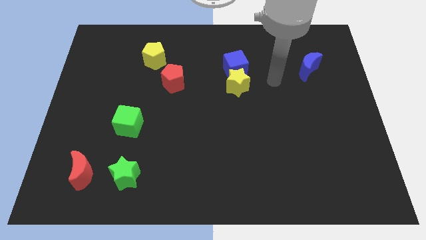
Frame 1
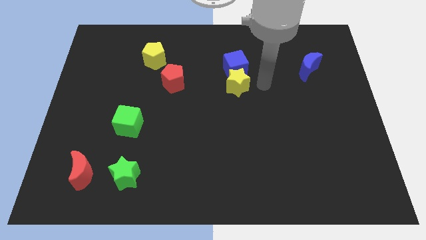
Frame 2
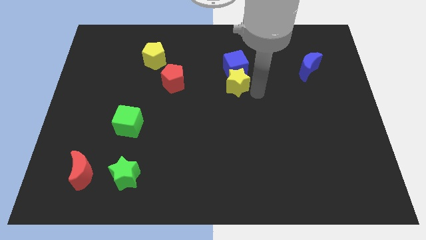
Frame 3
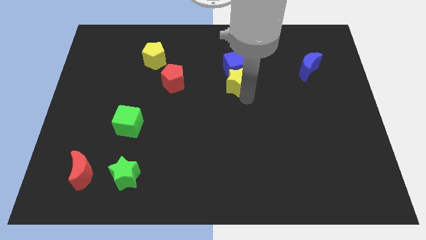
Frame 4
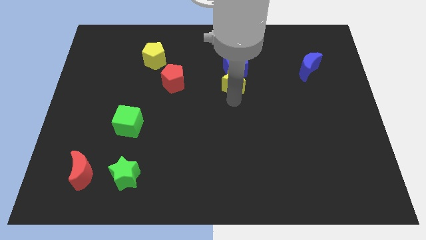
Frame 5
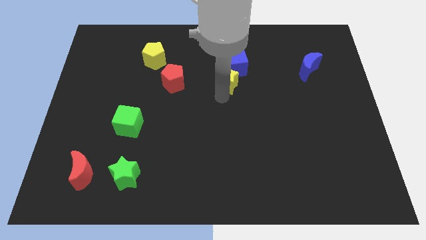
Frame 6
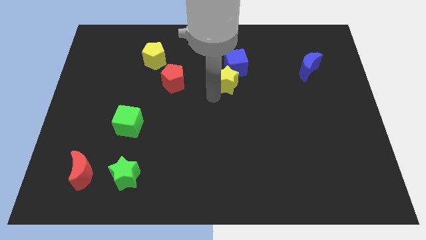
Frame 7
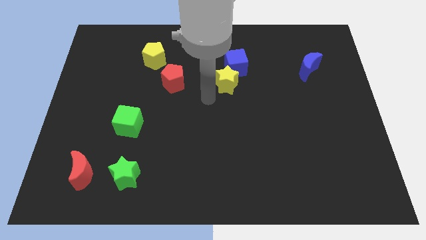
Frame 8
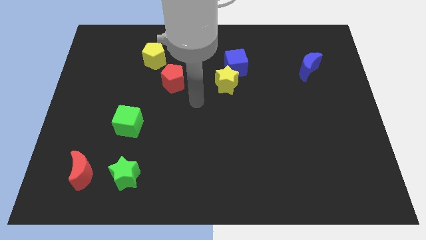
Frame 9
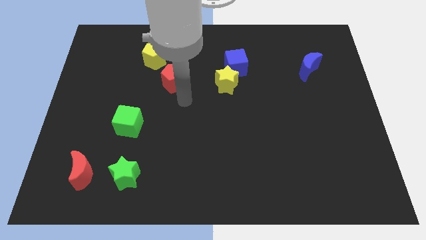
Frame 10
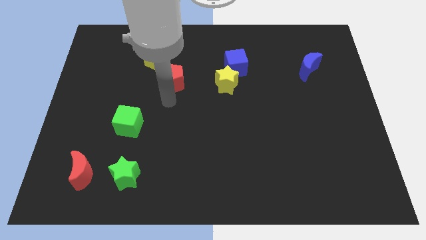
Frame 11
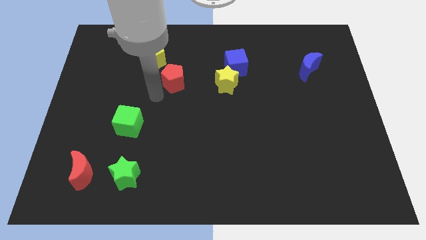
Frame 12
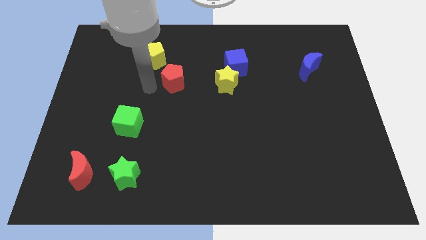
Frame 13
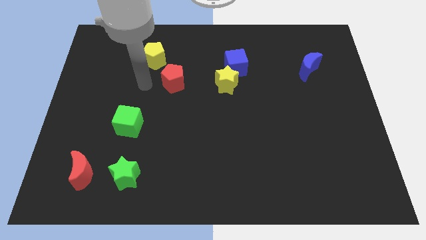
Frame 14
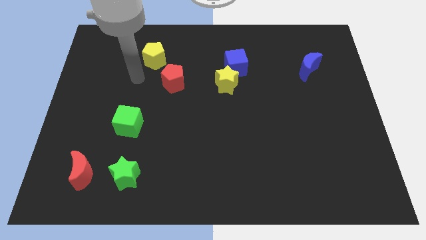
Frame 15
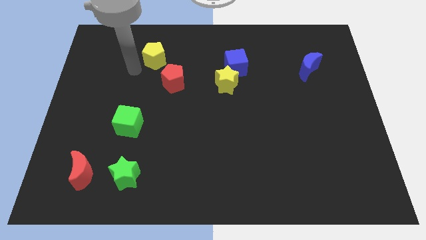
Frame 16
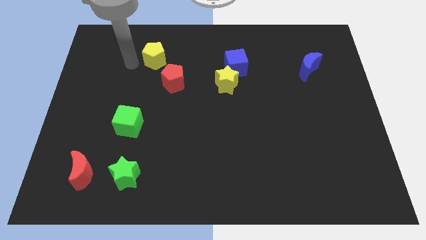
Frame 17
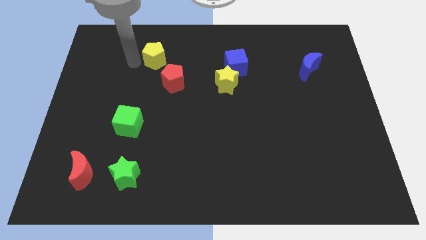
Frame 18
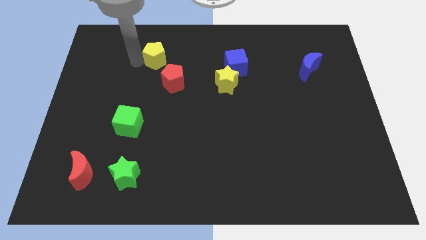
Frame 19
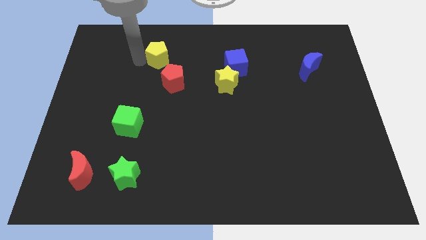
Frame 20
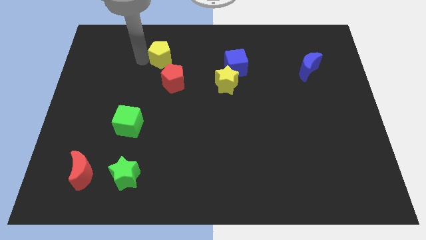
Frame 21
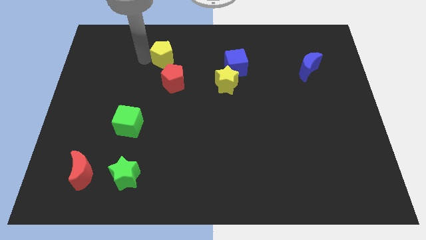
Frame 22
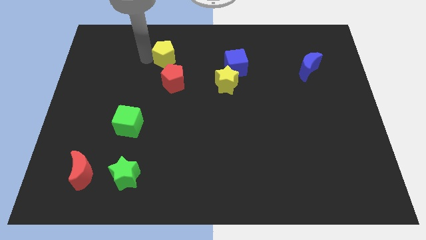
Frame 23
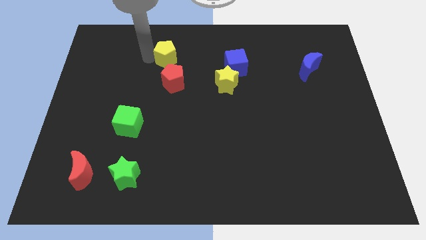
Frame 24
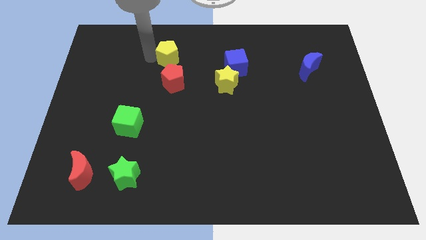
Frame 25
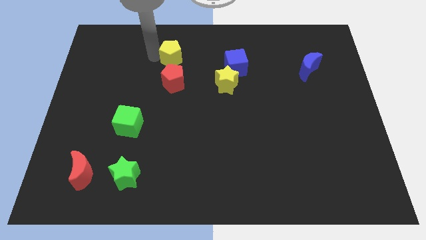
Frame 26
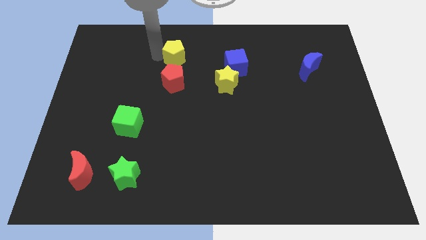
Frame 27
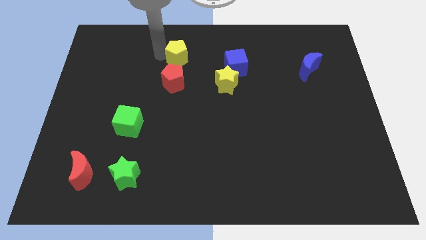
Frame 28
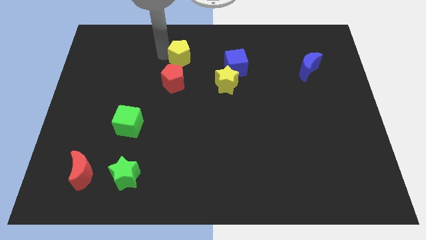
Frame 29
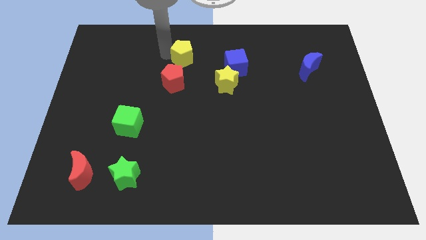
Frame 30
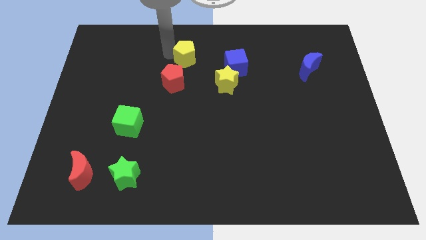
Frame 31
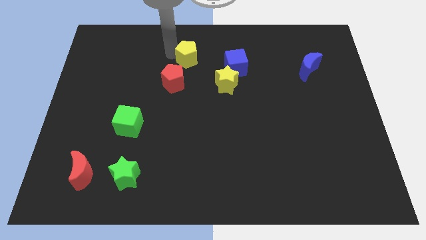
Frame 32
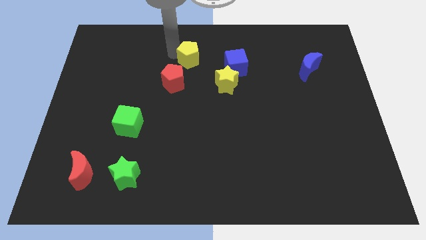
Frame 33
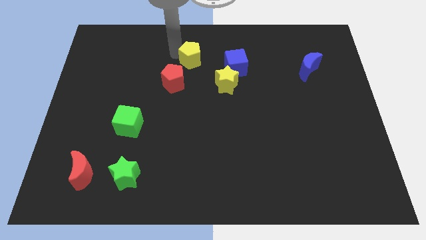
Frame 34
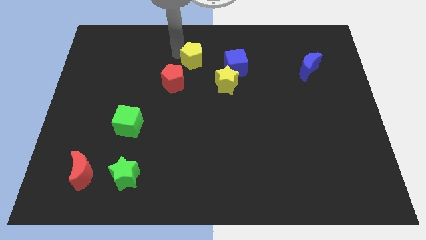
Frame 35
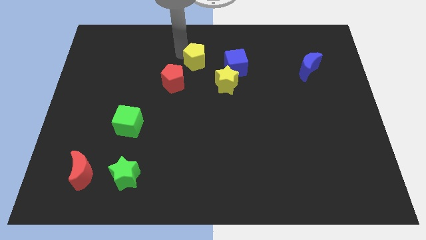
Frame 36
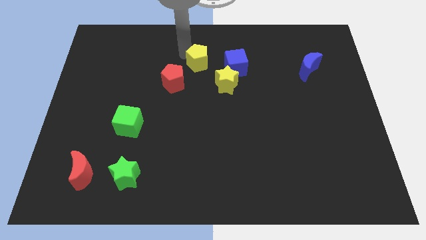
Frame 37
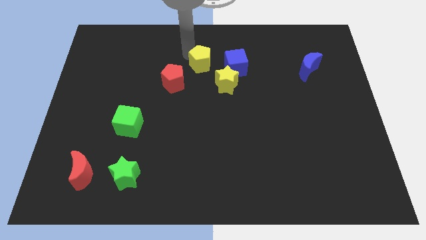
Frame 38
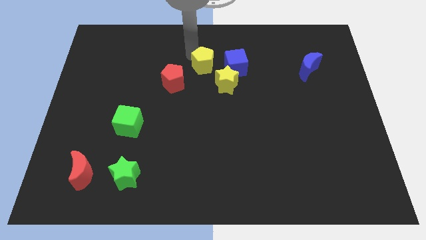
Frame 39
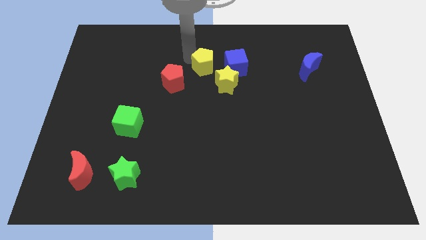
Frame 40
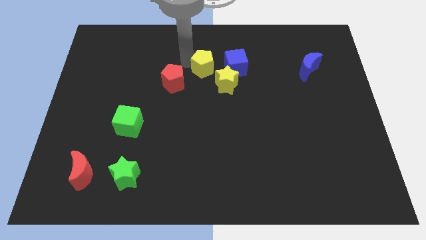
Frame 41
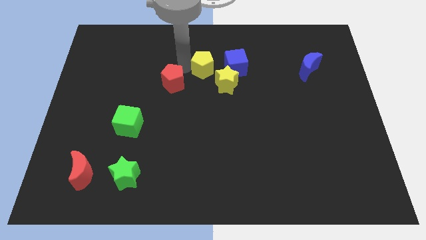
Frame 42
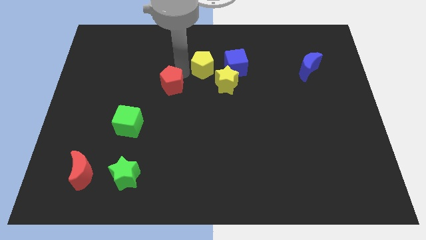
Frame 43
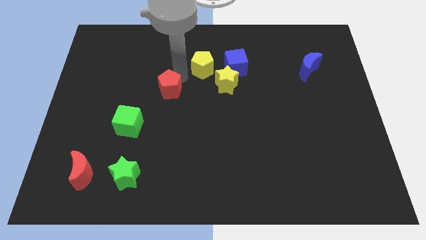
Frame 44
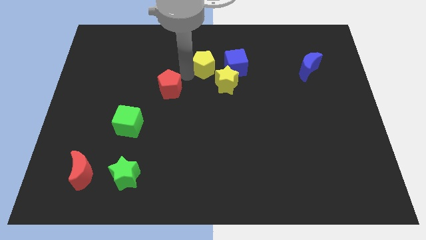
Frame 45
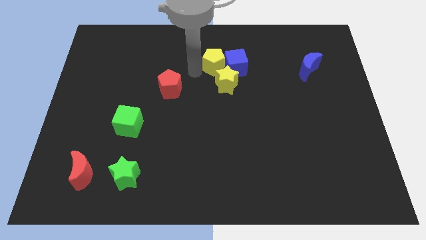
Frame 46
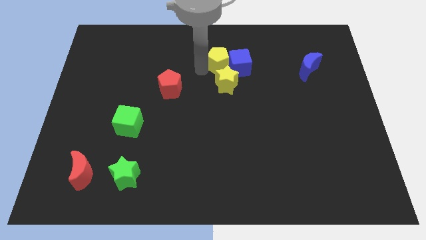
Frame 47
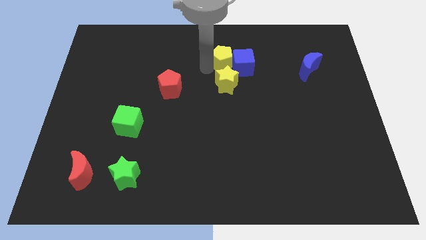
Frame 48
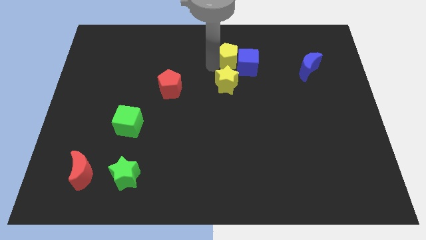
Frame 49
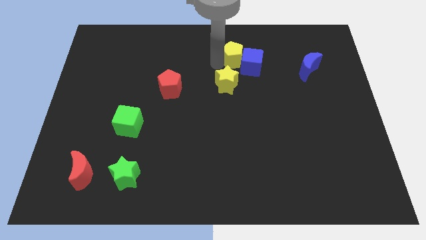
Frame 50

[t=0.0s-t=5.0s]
slide the yellow pentagon diagonally up and to the right of the yellow star

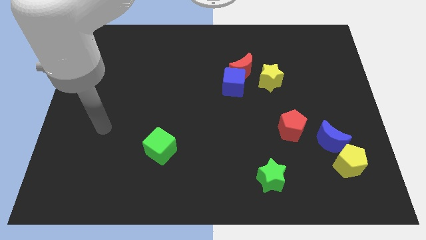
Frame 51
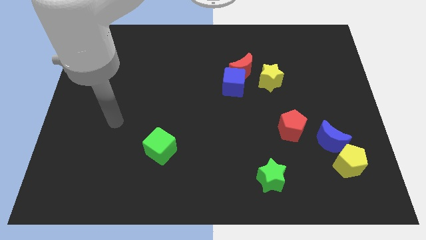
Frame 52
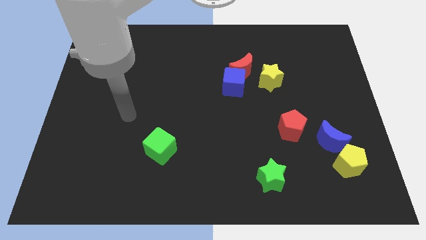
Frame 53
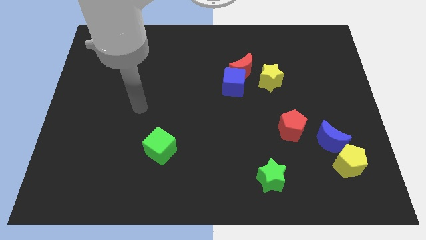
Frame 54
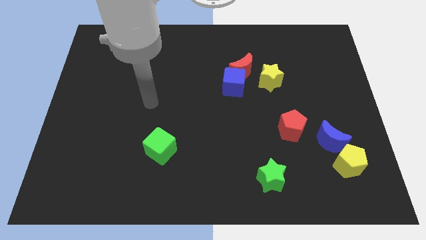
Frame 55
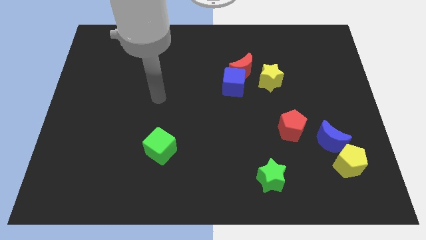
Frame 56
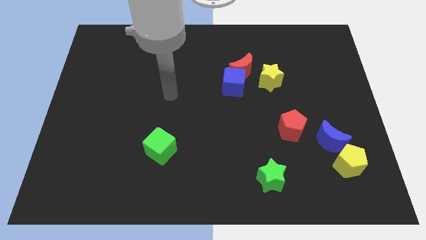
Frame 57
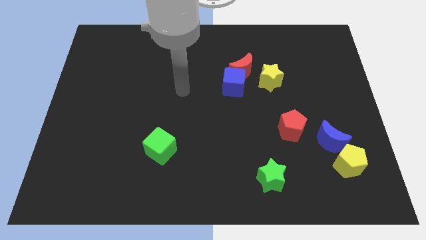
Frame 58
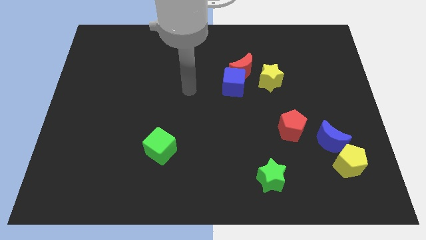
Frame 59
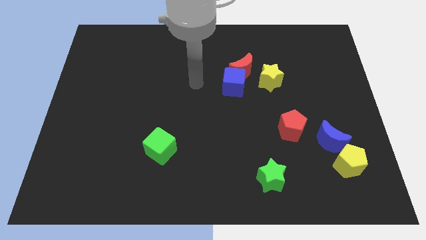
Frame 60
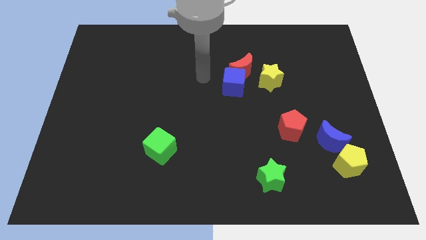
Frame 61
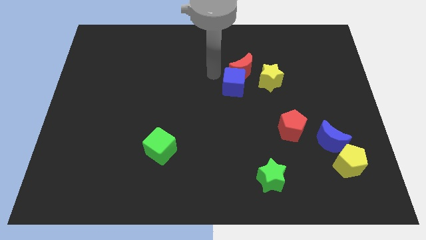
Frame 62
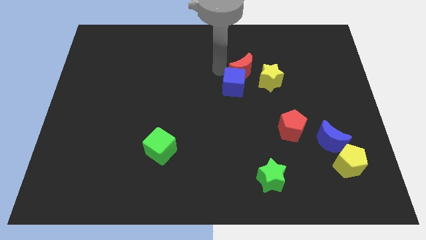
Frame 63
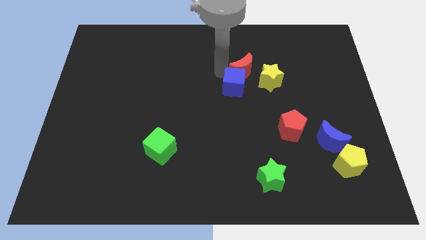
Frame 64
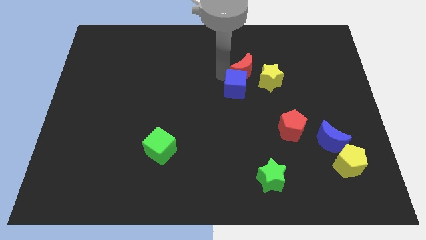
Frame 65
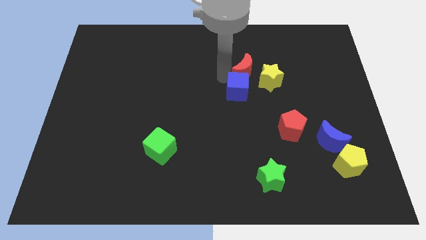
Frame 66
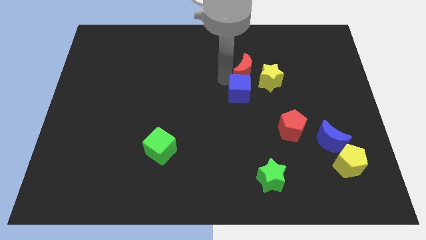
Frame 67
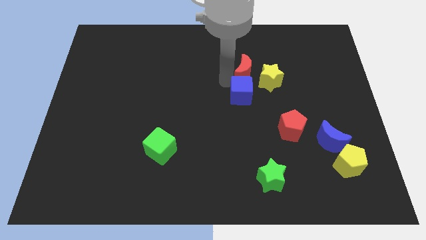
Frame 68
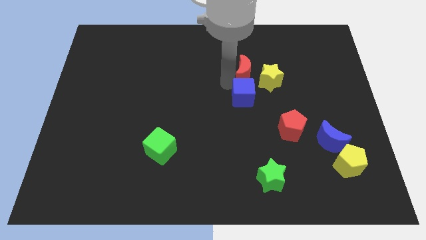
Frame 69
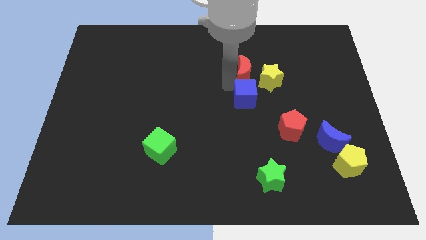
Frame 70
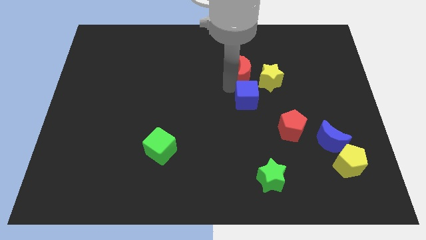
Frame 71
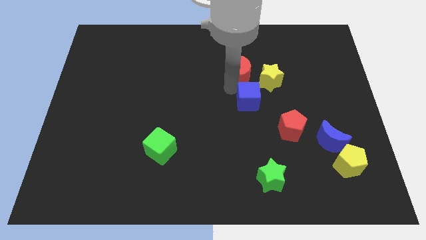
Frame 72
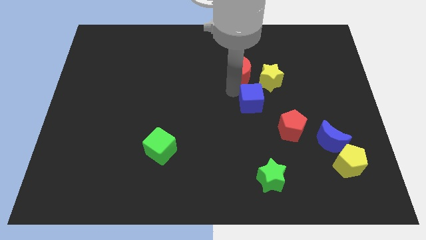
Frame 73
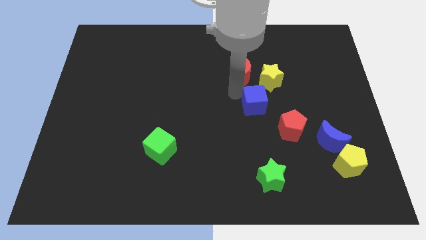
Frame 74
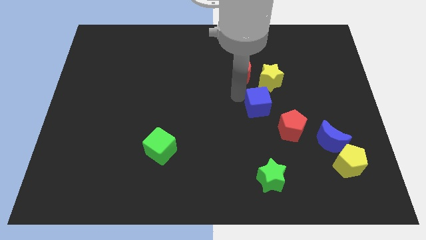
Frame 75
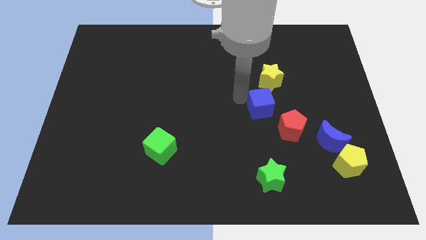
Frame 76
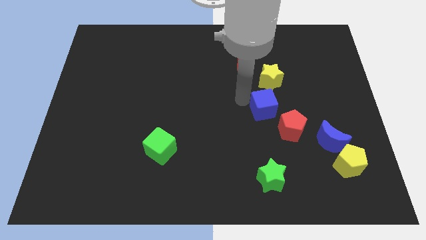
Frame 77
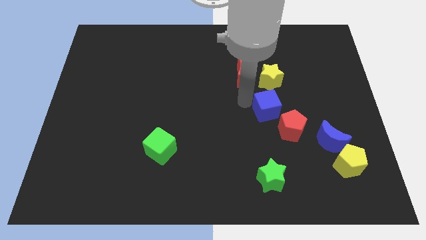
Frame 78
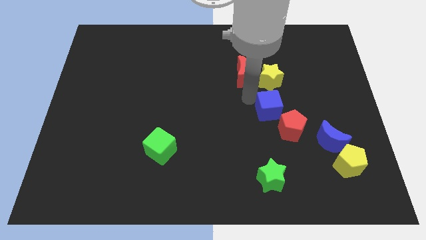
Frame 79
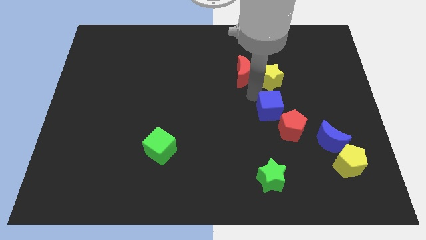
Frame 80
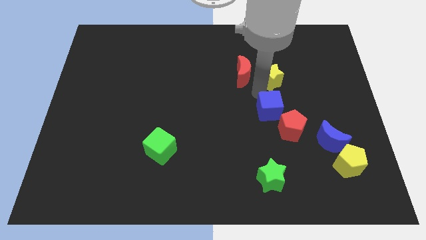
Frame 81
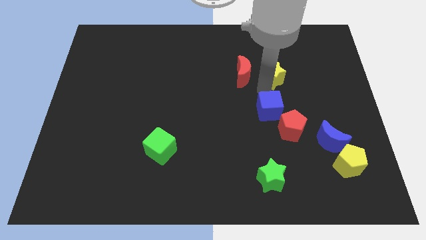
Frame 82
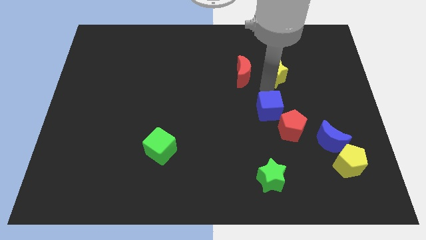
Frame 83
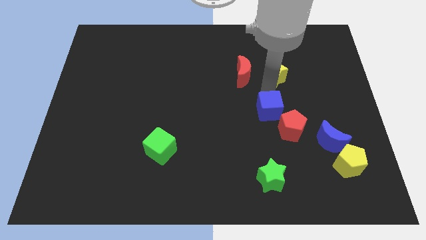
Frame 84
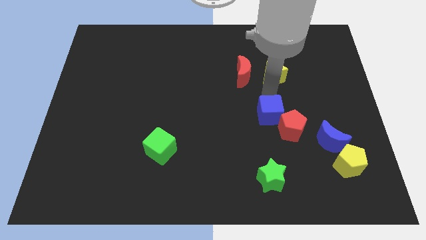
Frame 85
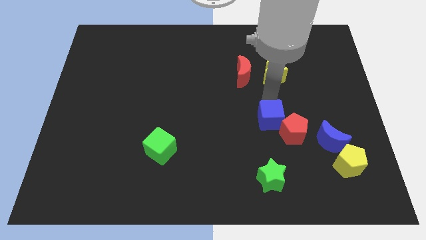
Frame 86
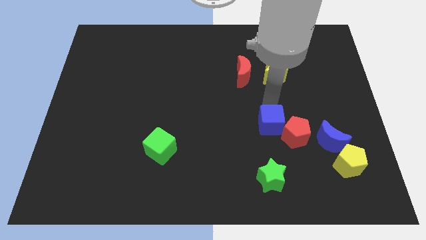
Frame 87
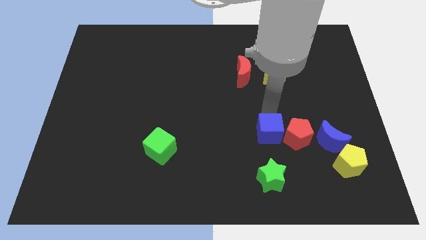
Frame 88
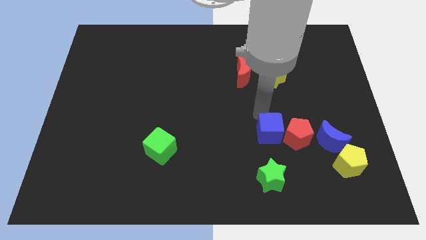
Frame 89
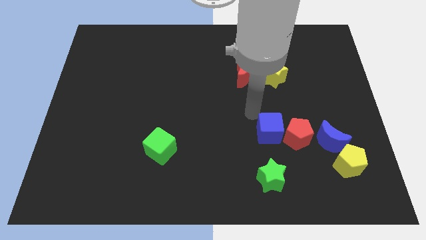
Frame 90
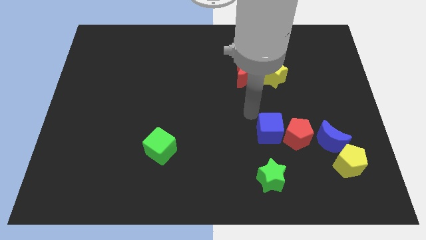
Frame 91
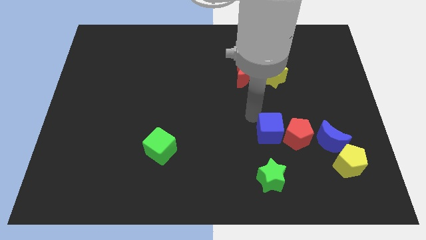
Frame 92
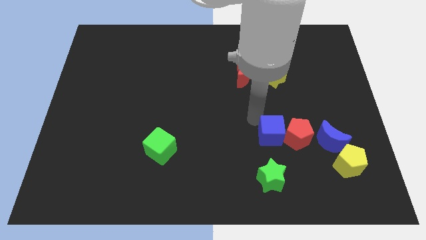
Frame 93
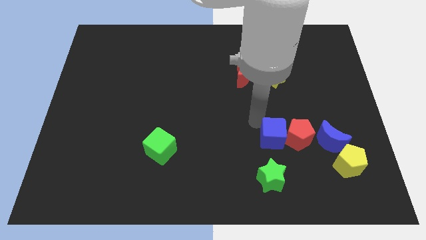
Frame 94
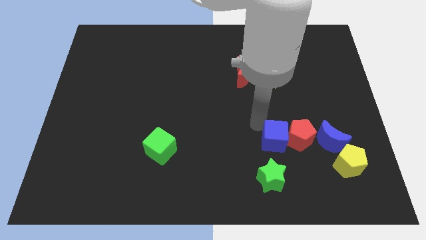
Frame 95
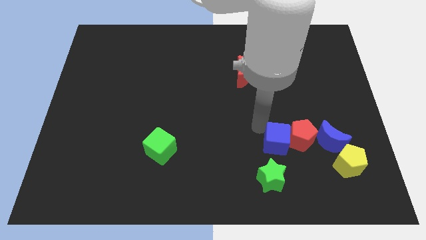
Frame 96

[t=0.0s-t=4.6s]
move the blue cube to the top right side of the green star
